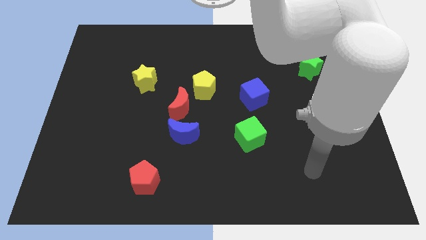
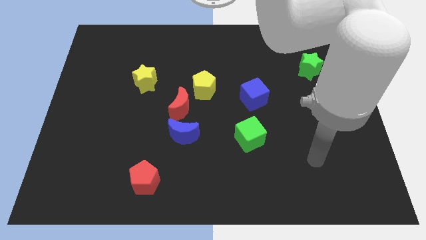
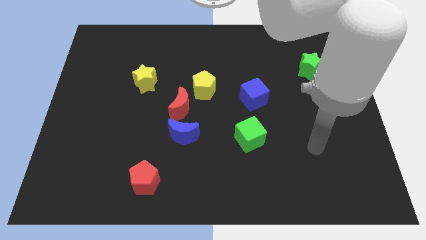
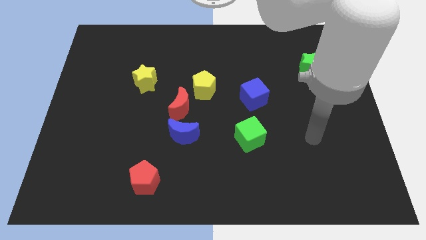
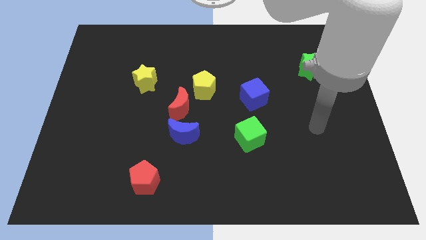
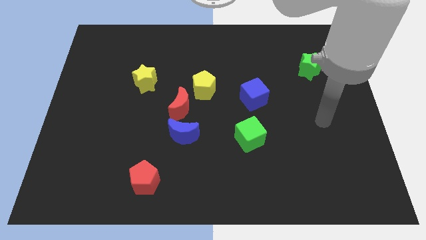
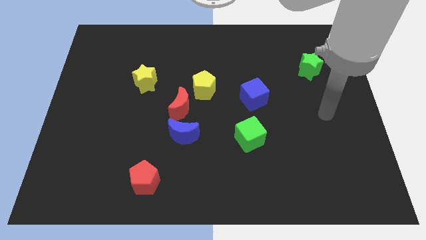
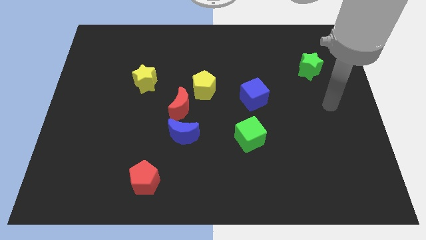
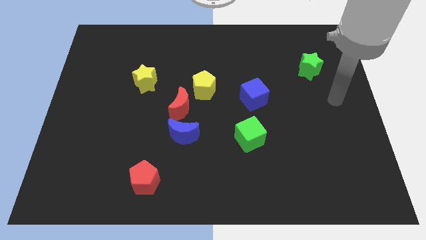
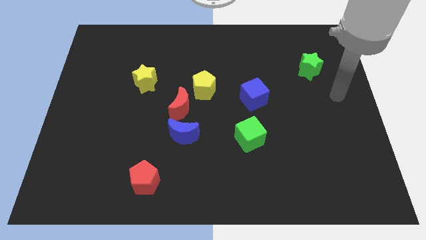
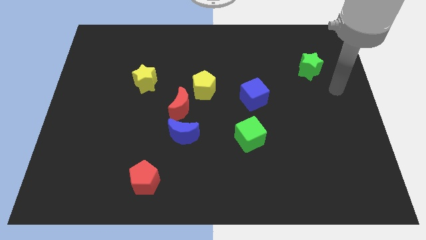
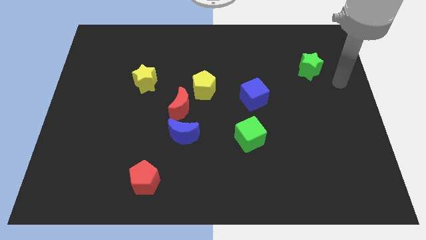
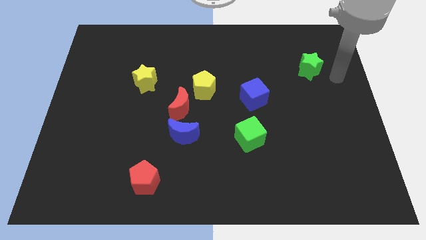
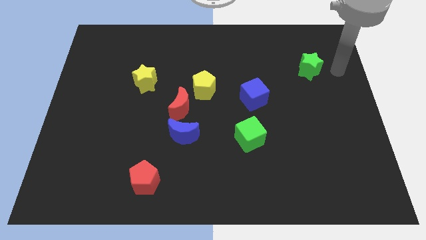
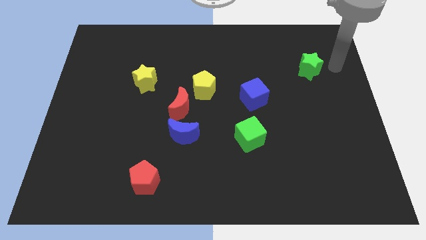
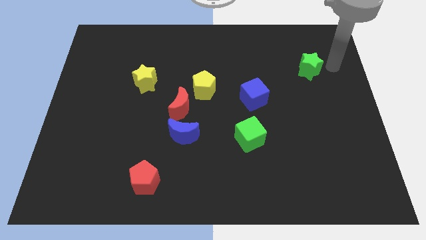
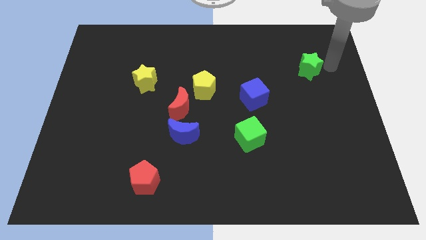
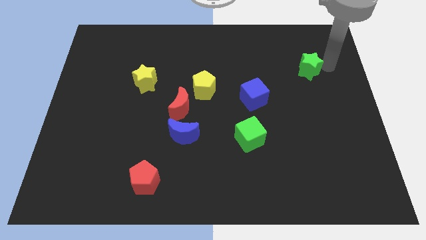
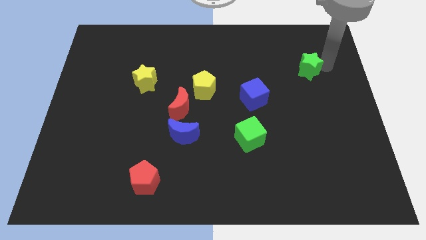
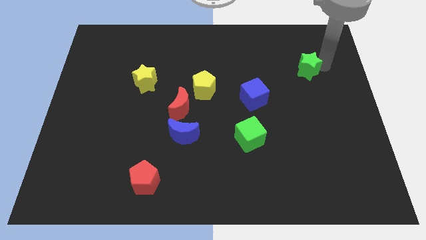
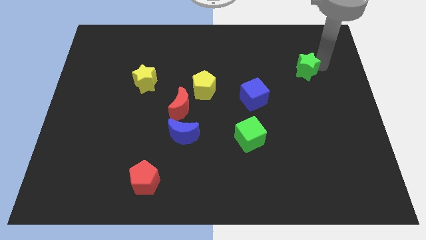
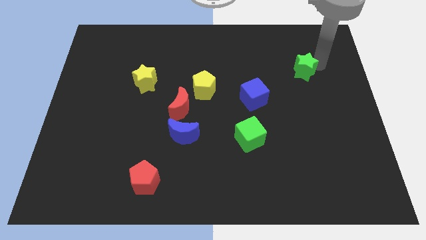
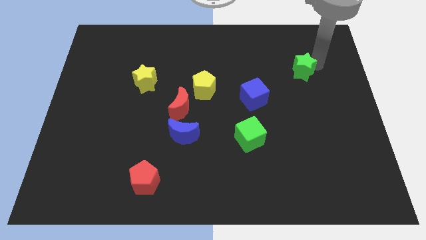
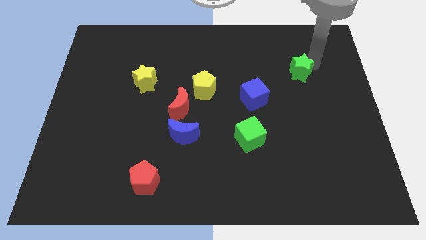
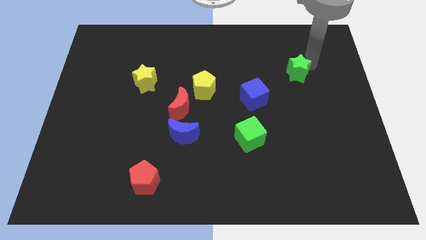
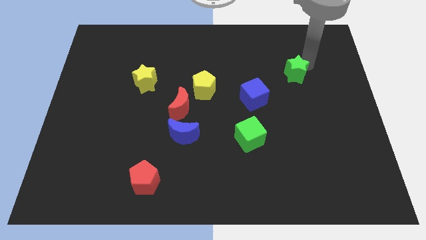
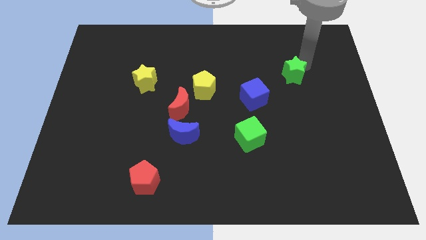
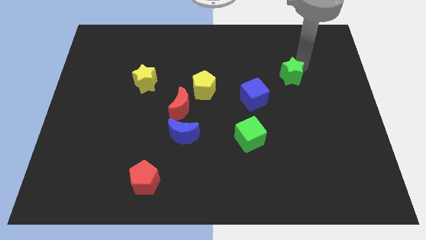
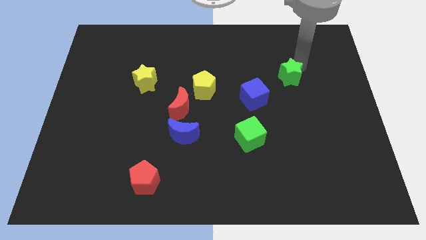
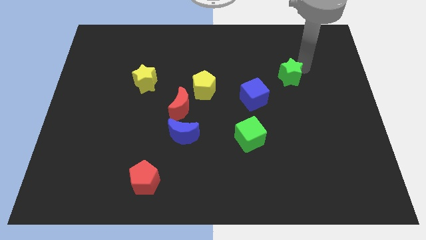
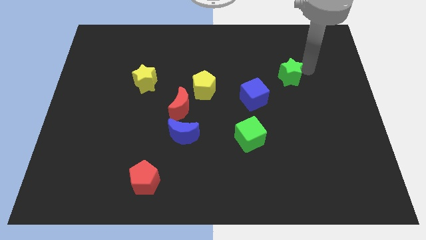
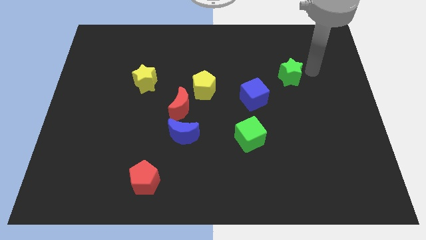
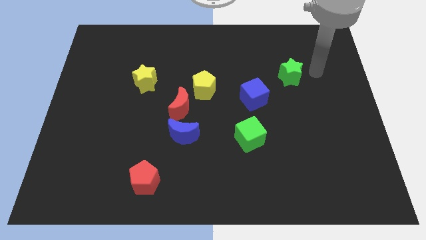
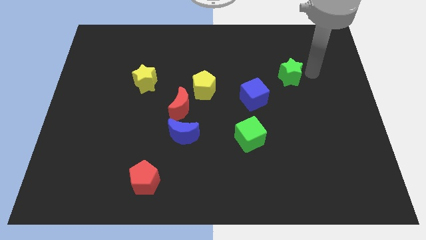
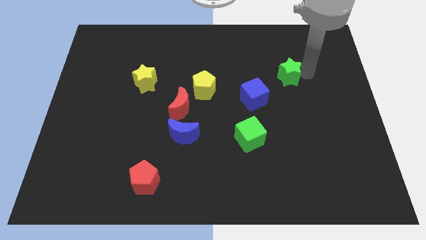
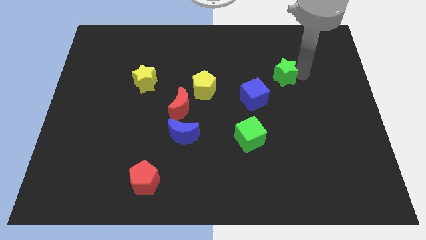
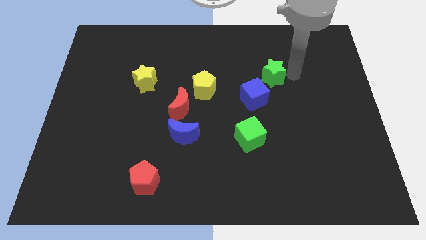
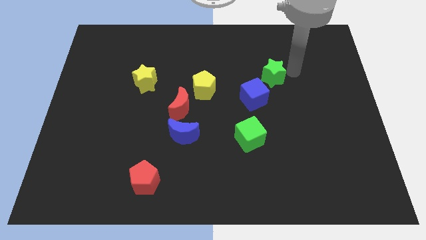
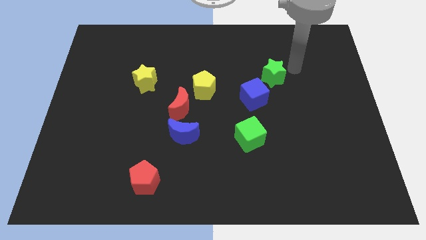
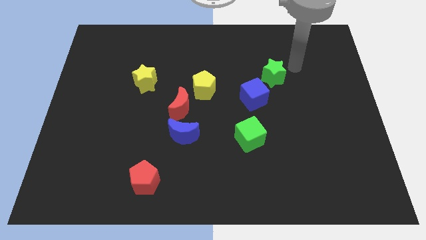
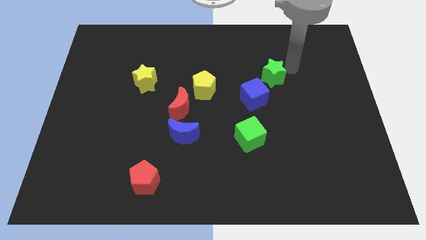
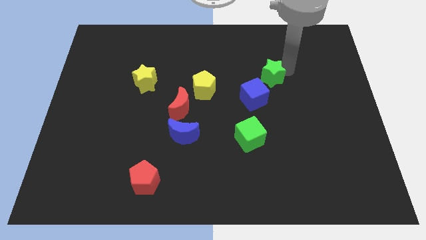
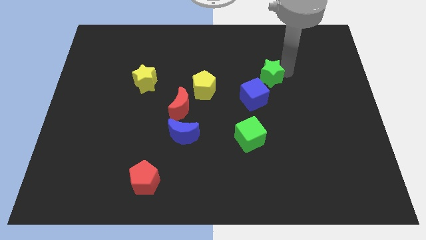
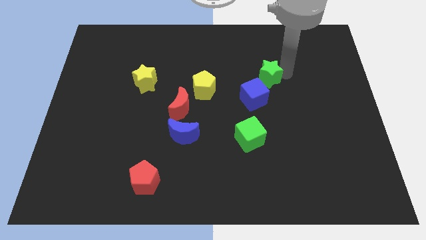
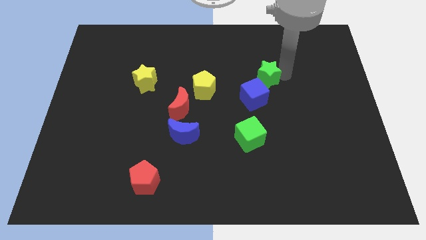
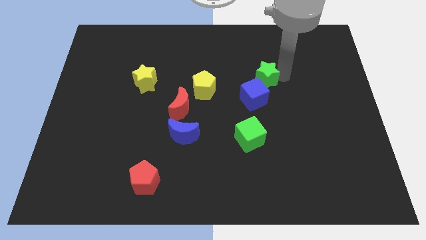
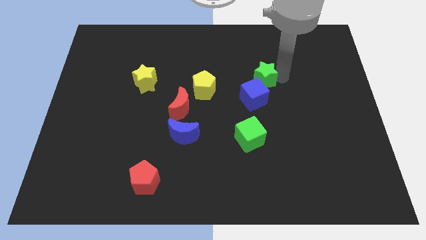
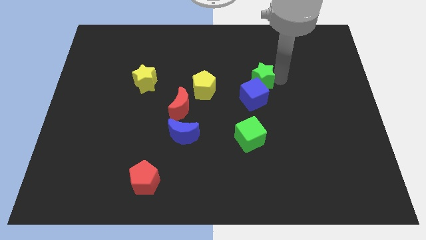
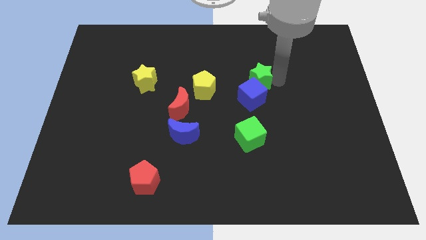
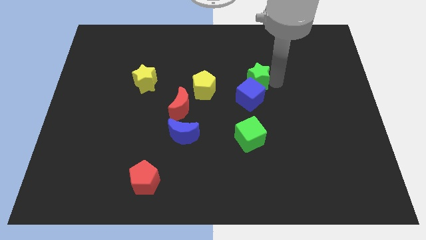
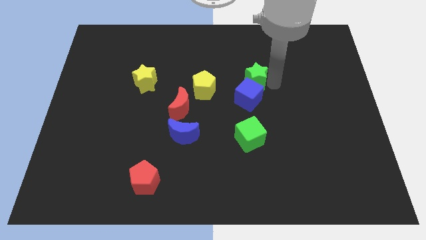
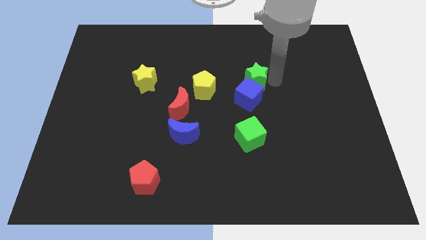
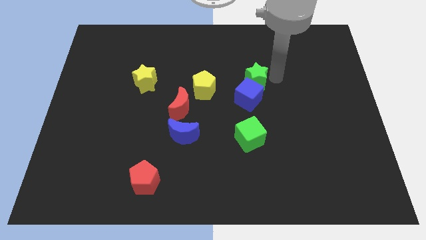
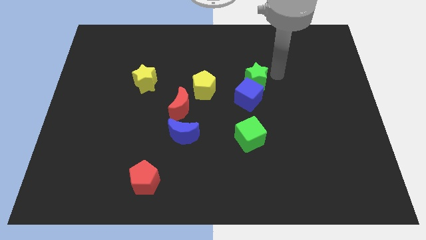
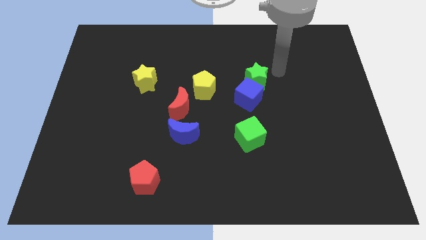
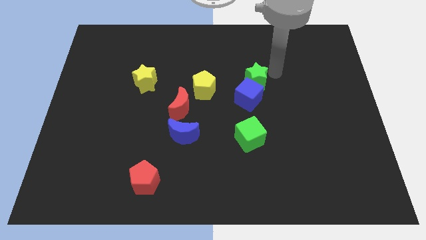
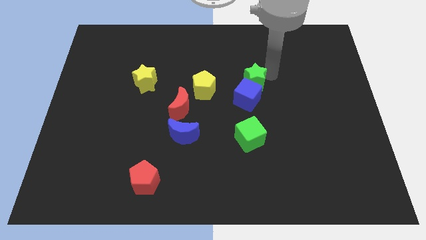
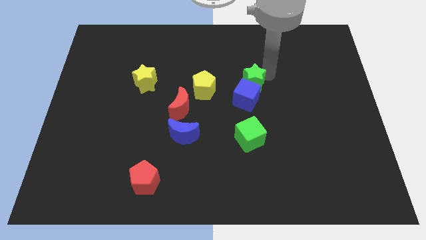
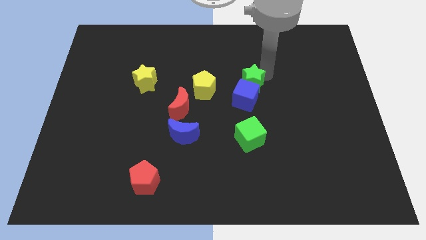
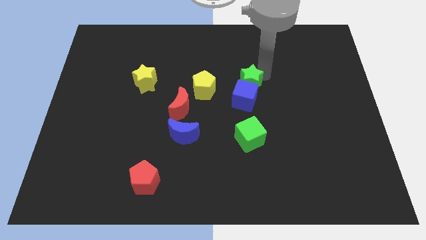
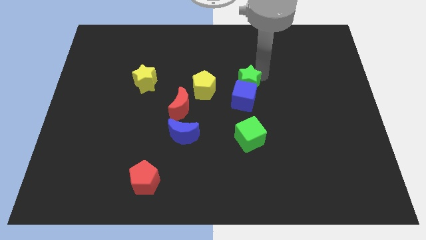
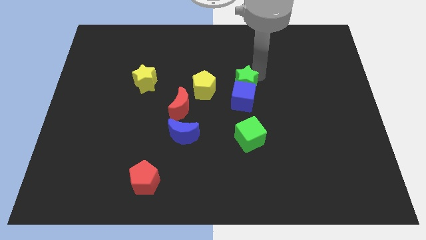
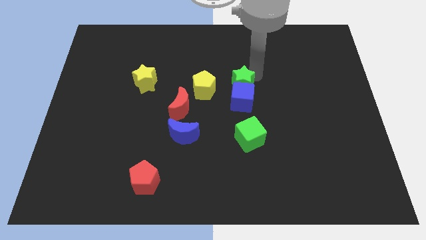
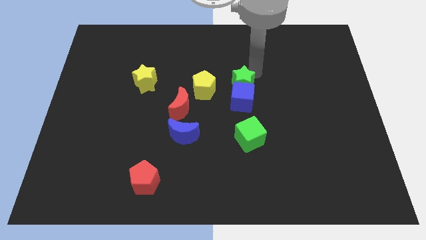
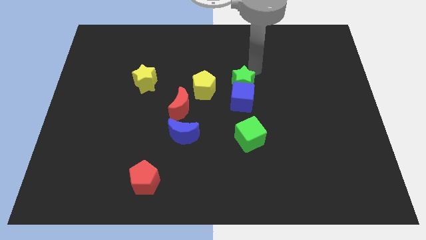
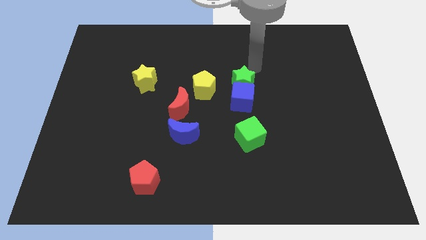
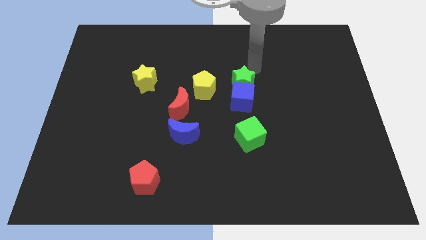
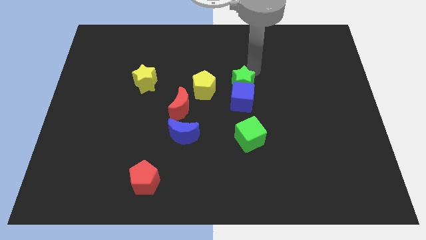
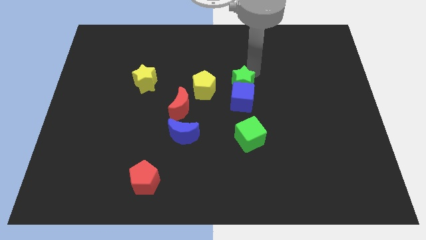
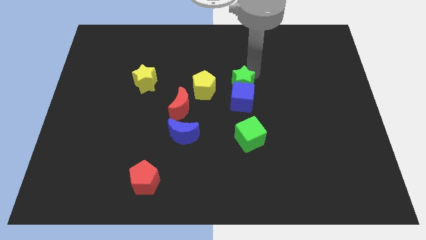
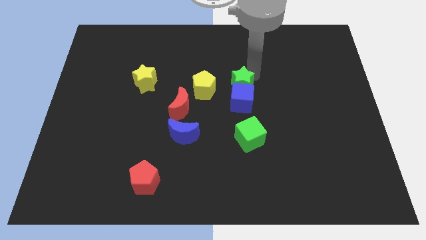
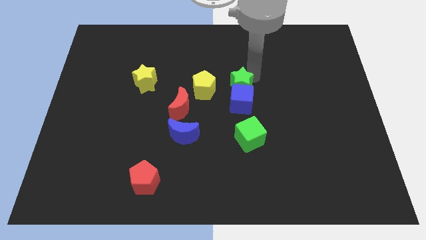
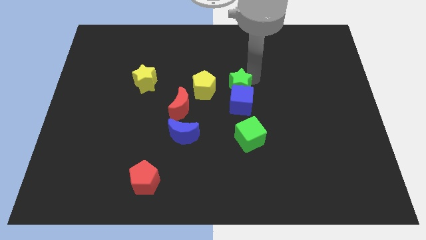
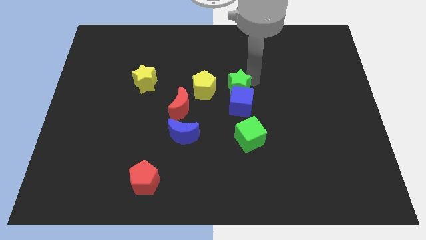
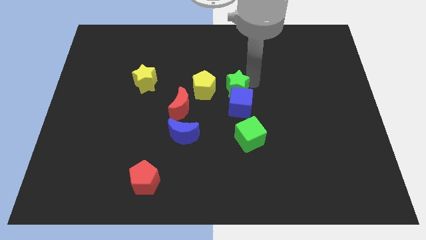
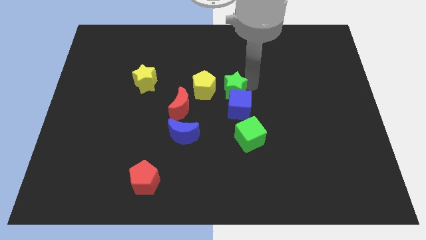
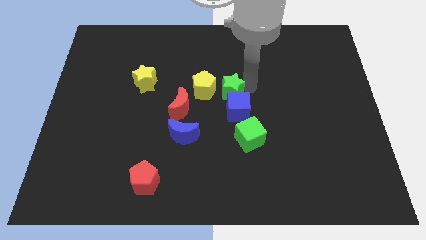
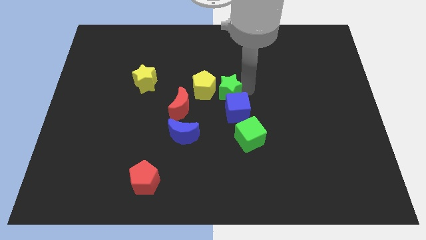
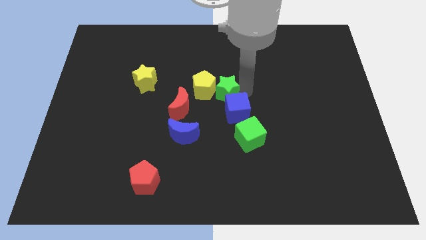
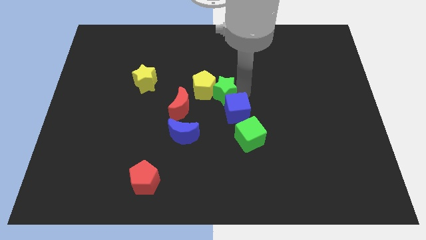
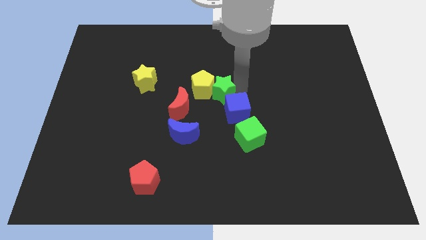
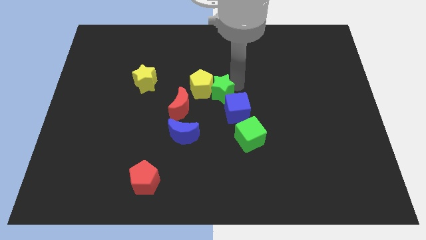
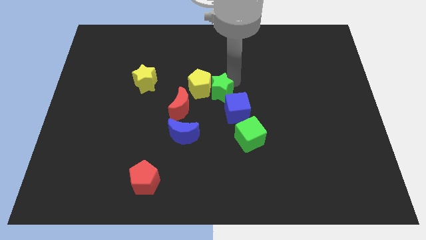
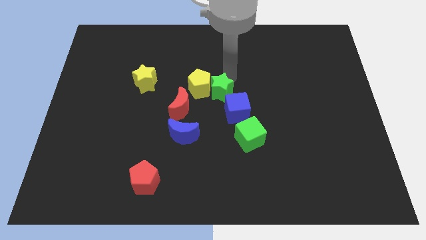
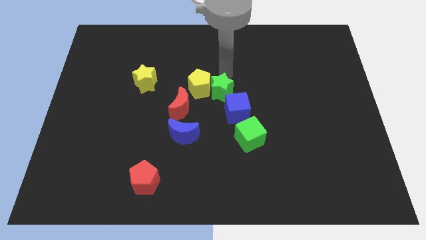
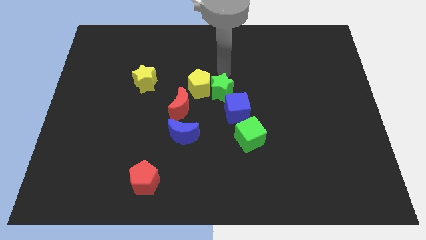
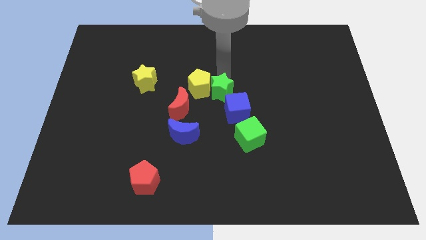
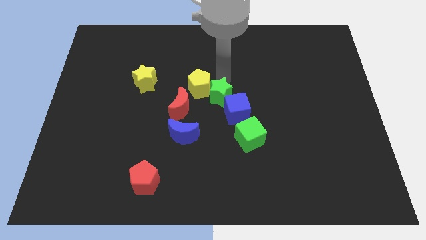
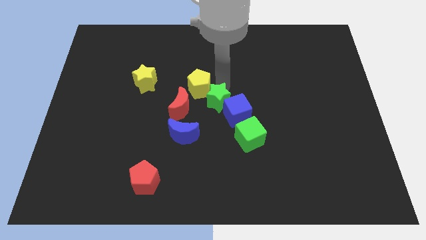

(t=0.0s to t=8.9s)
push the green star diagonally down and left
